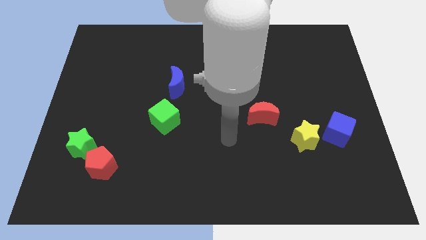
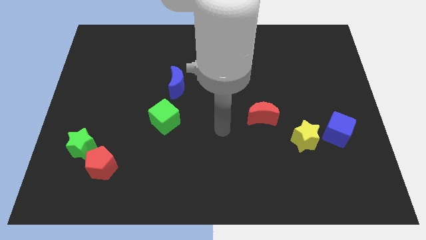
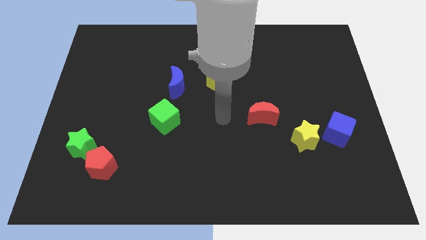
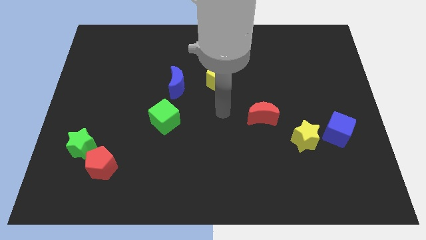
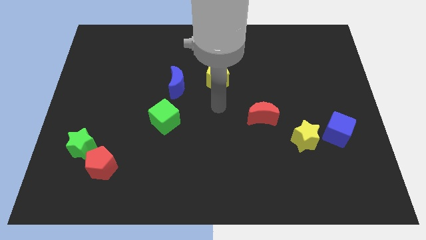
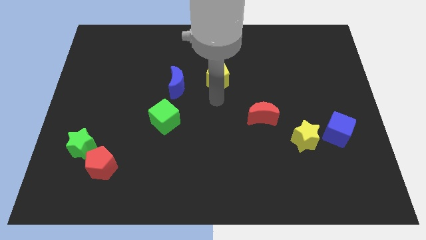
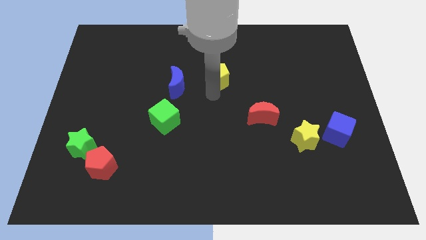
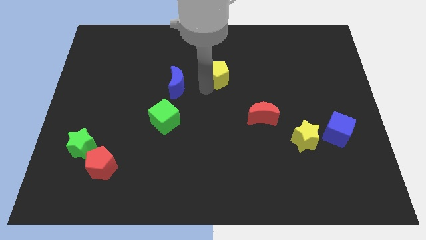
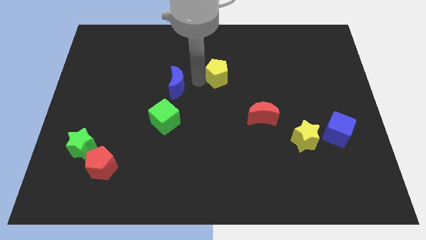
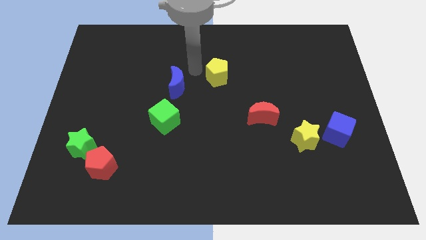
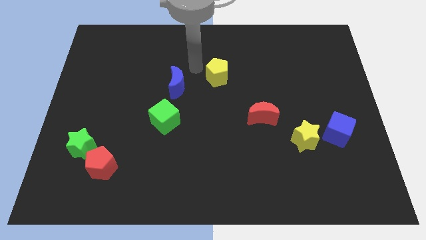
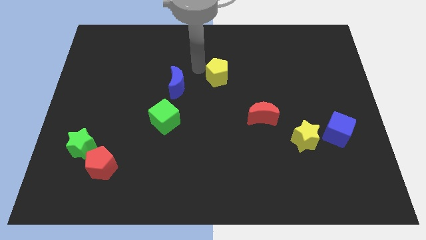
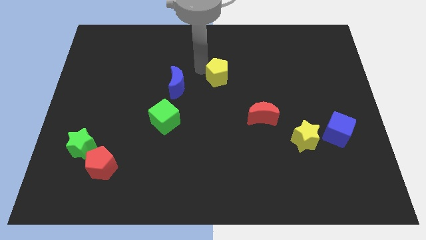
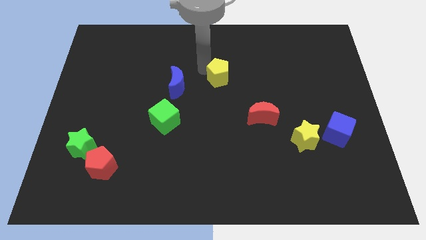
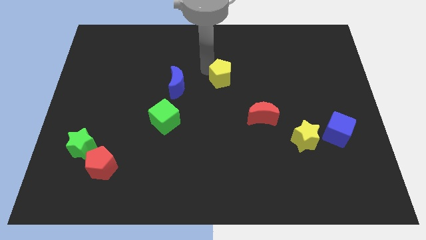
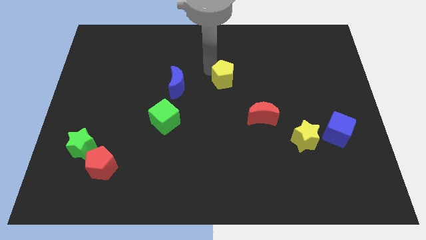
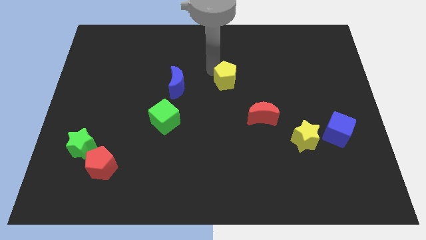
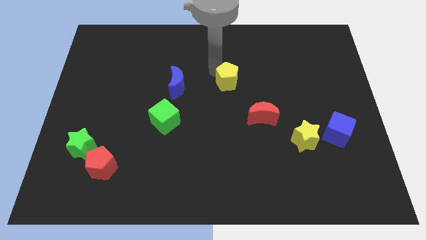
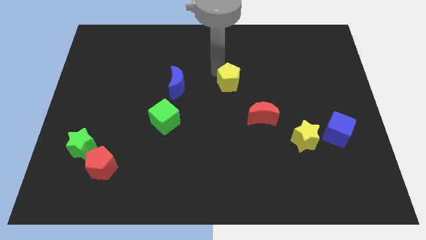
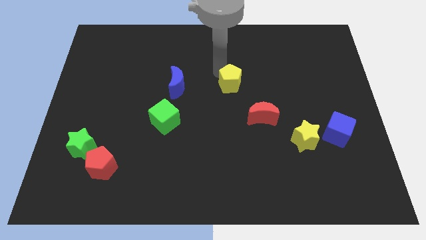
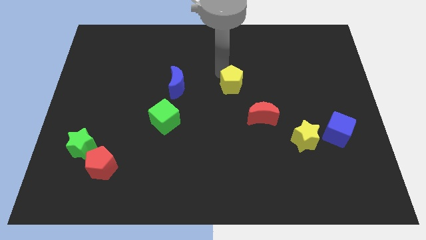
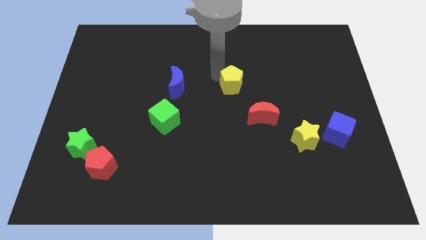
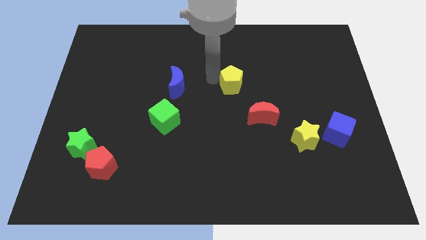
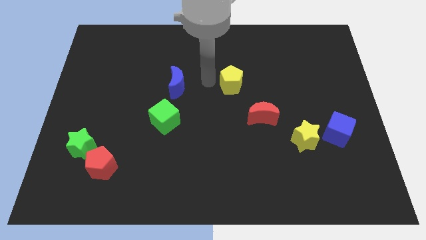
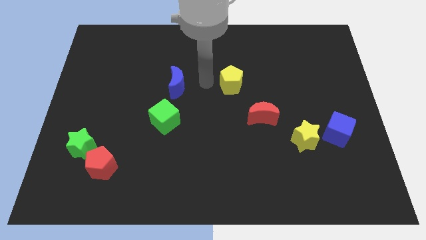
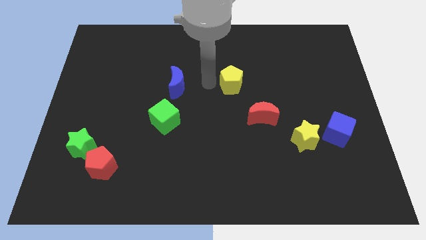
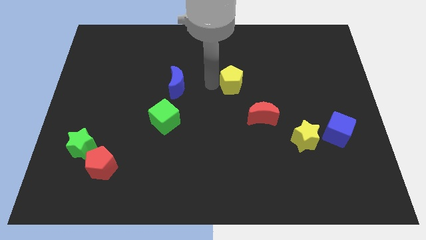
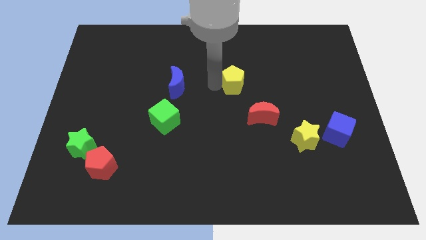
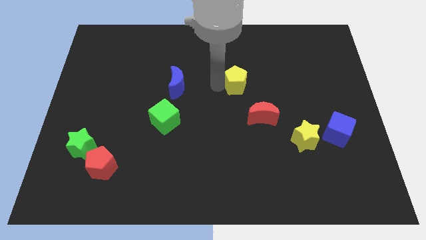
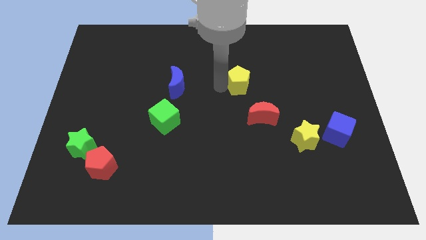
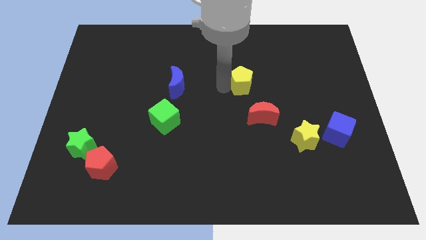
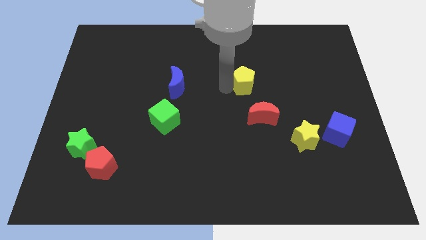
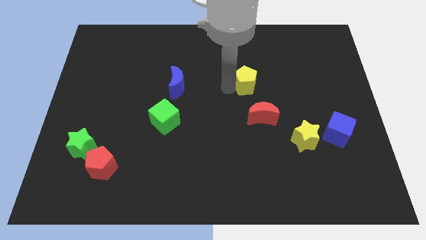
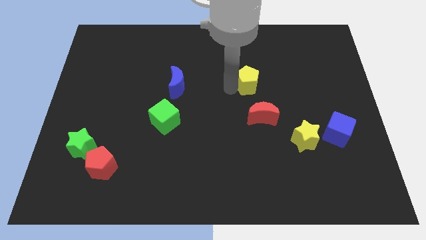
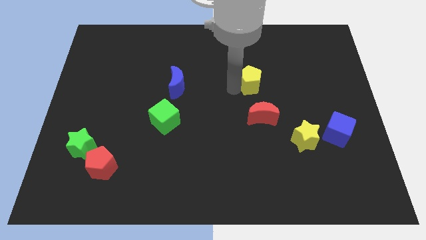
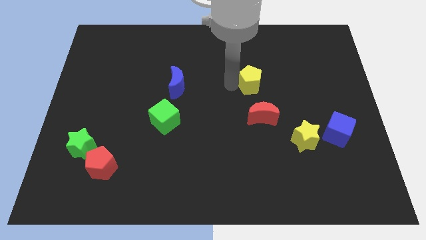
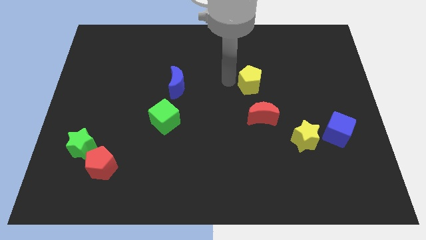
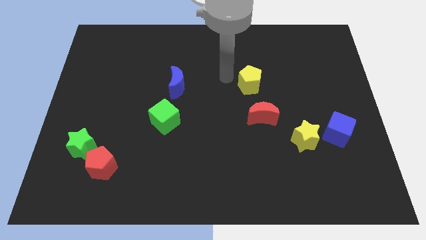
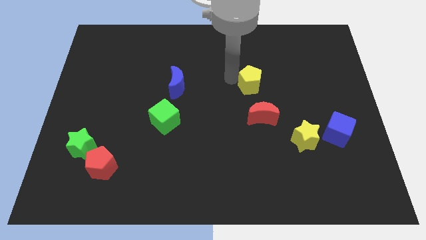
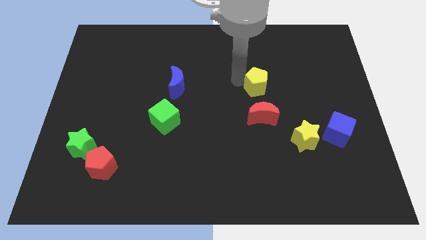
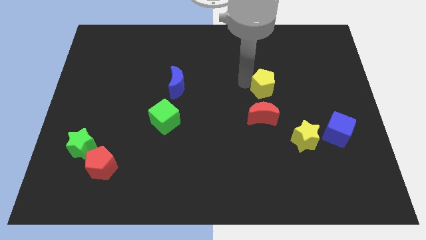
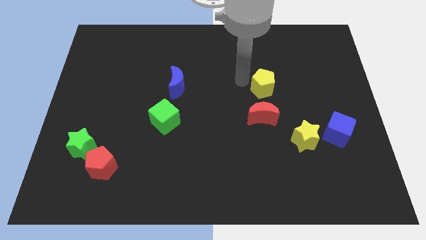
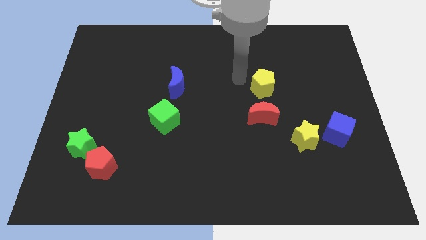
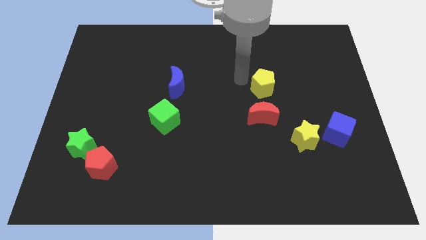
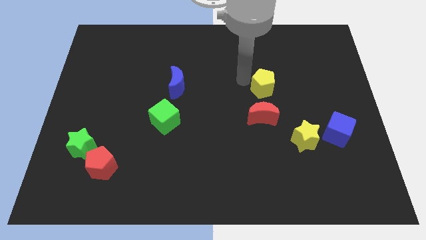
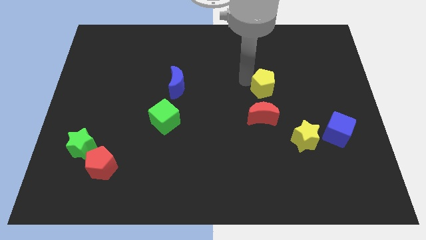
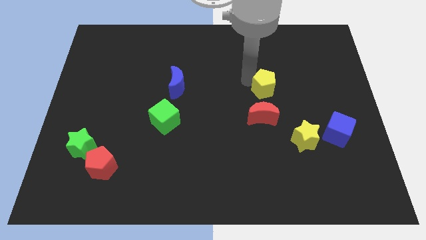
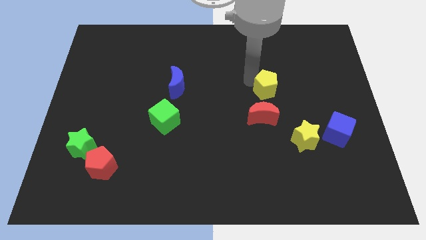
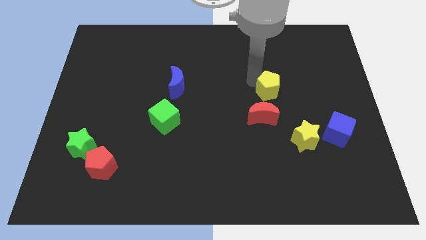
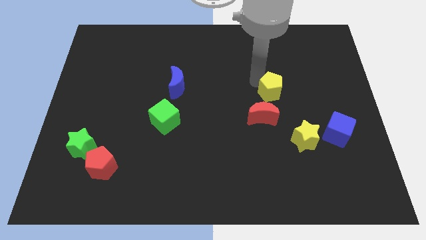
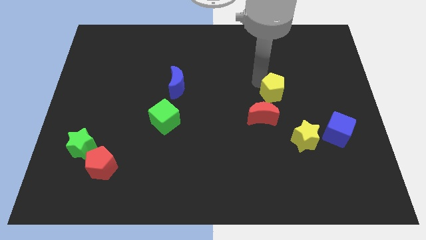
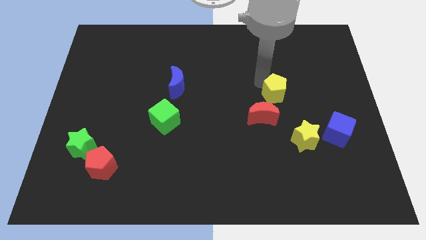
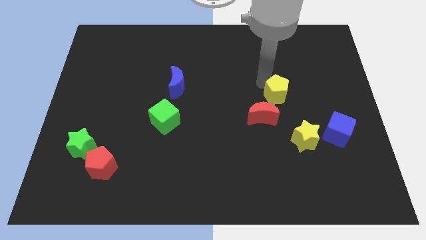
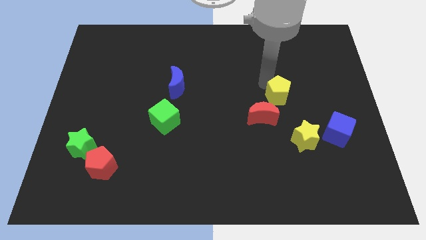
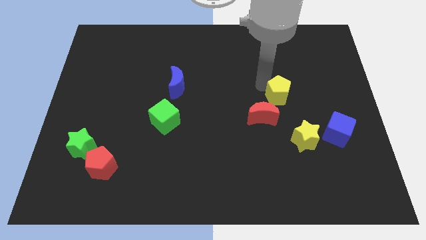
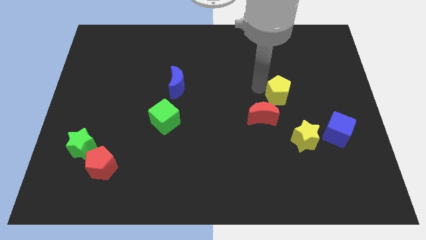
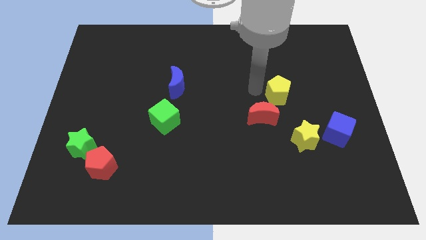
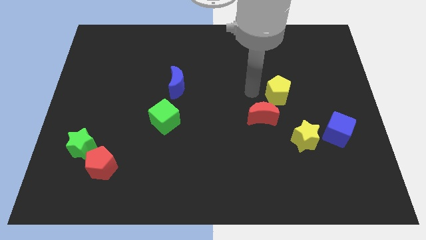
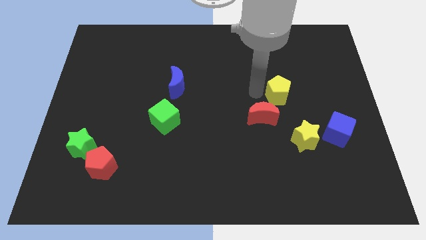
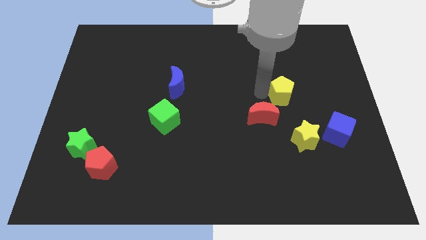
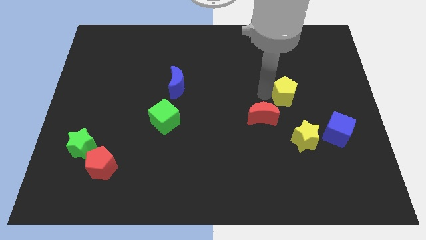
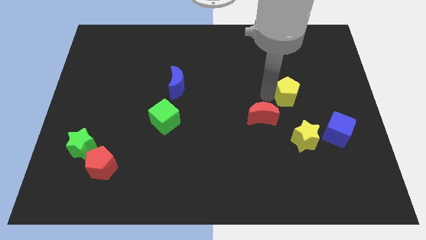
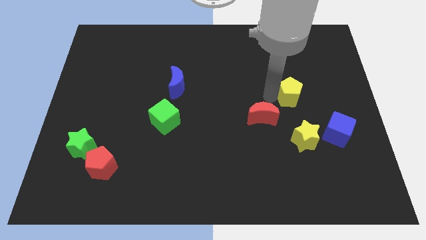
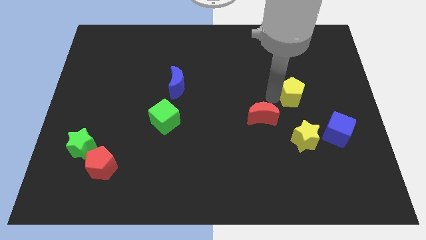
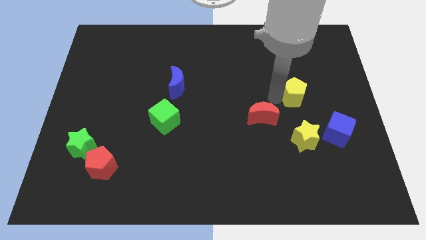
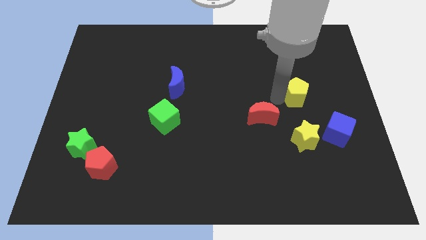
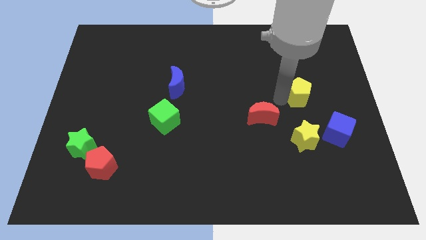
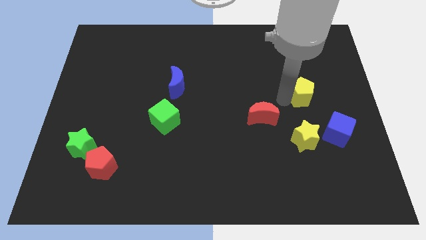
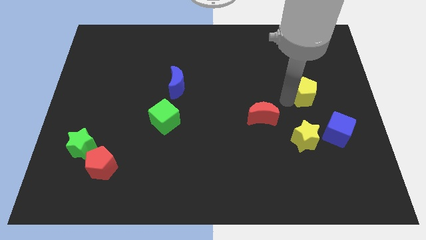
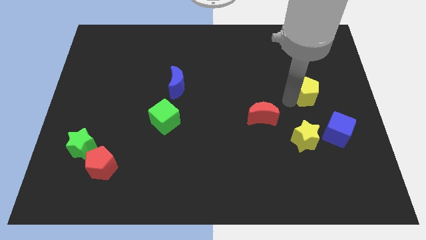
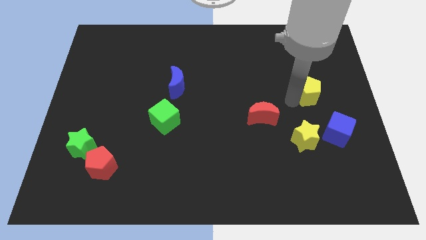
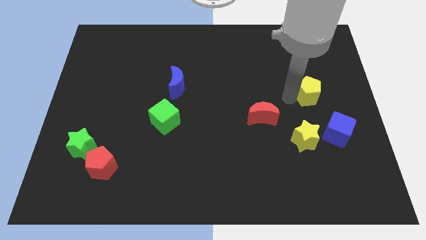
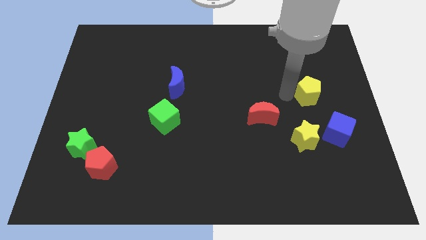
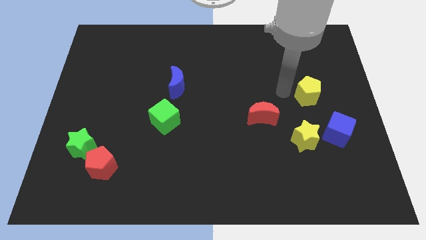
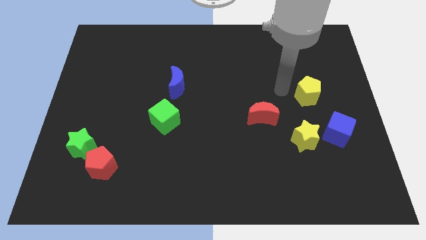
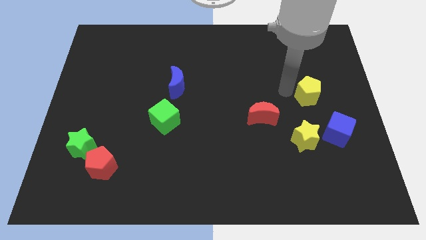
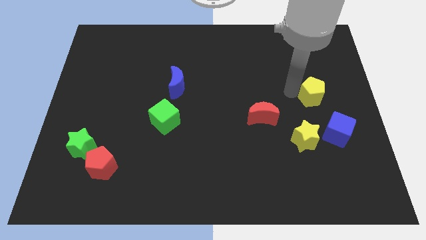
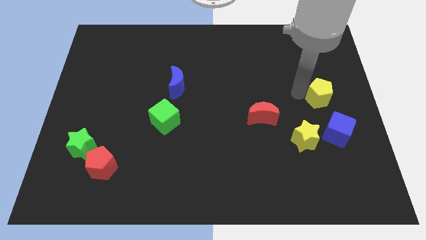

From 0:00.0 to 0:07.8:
slide the yellow pentagon to the right side
